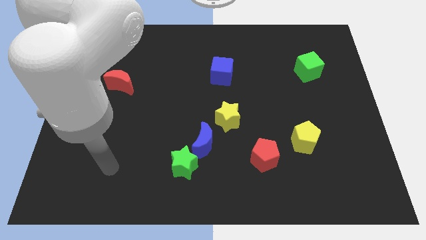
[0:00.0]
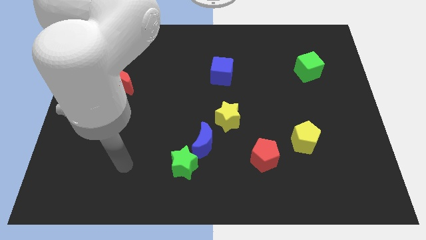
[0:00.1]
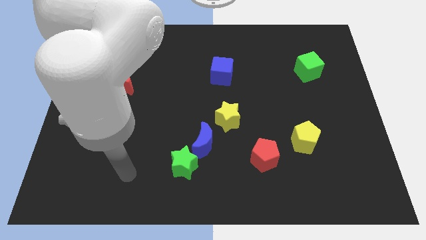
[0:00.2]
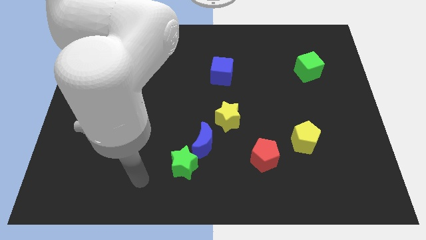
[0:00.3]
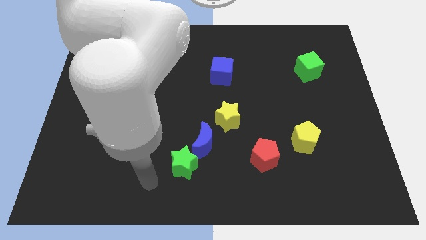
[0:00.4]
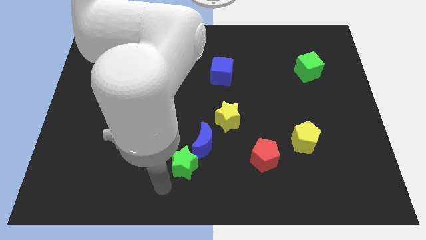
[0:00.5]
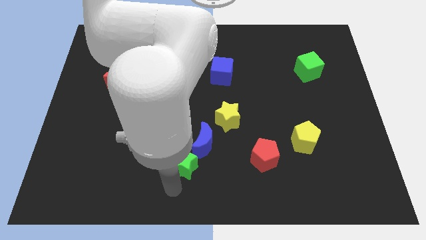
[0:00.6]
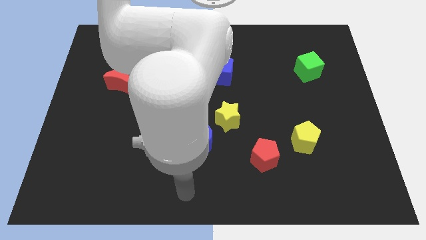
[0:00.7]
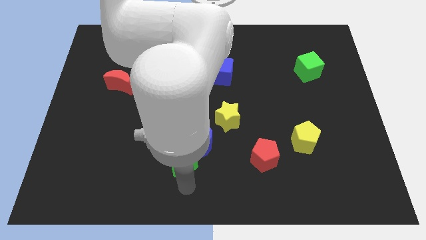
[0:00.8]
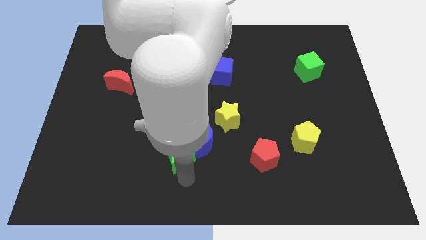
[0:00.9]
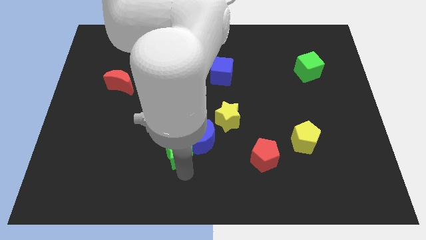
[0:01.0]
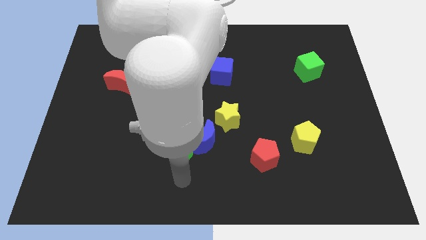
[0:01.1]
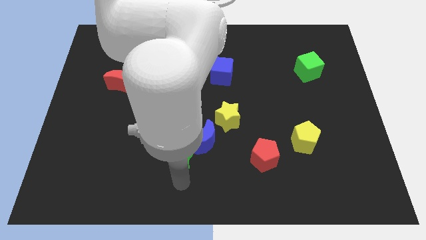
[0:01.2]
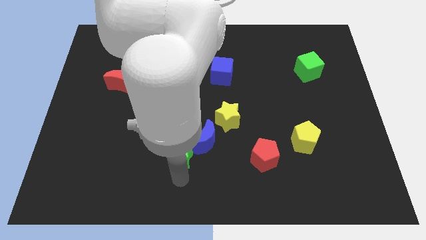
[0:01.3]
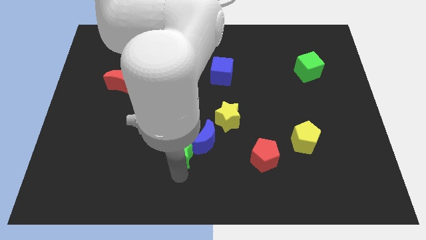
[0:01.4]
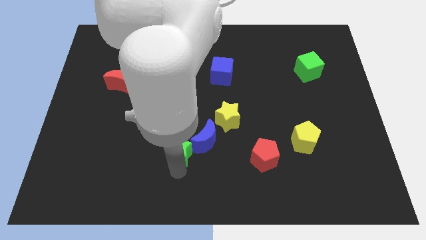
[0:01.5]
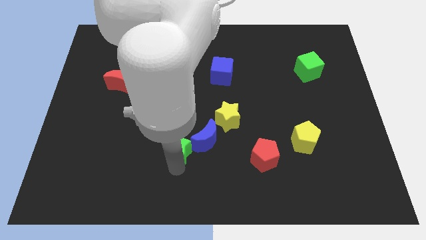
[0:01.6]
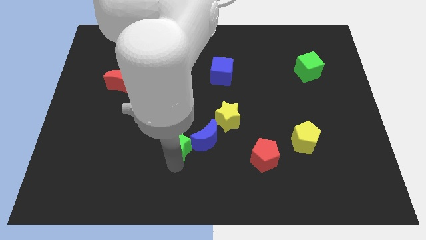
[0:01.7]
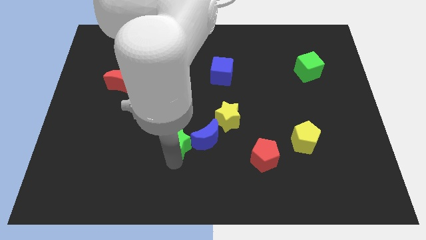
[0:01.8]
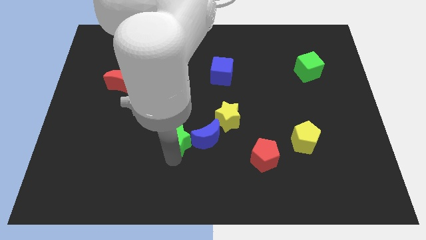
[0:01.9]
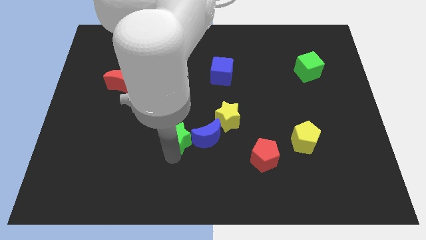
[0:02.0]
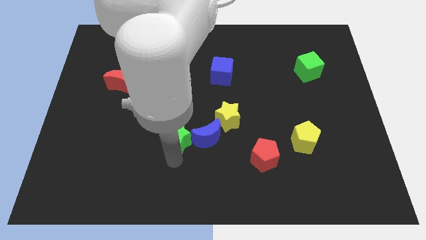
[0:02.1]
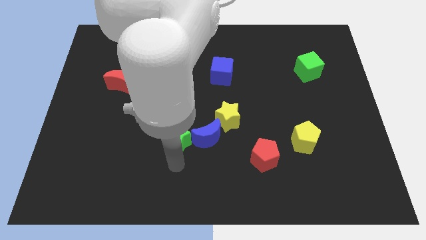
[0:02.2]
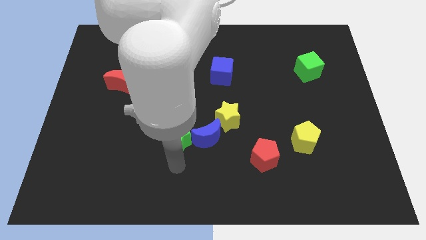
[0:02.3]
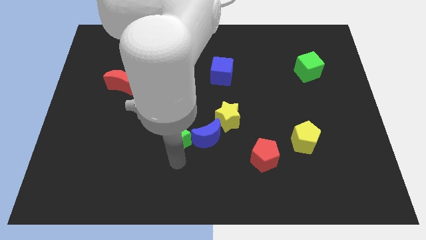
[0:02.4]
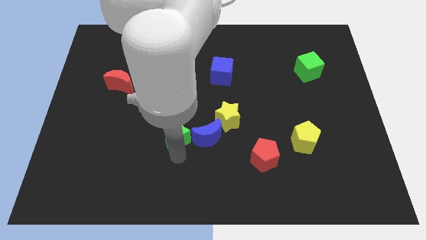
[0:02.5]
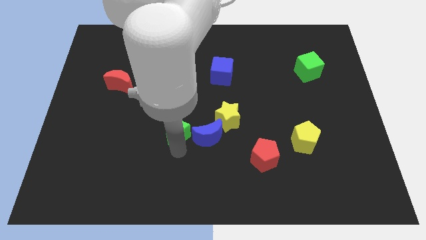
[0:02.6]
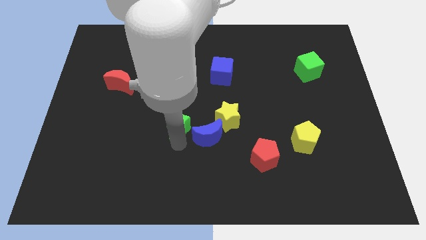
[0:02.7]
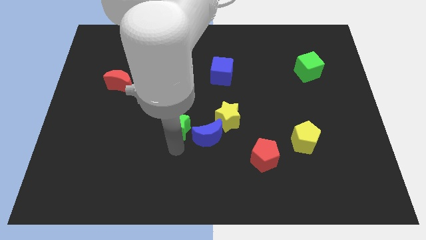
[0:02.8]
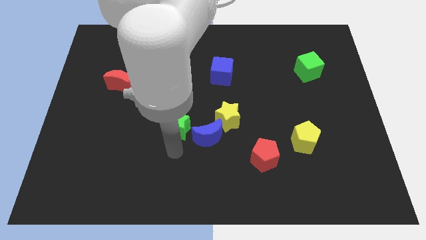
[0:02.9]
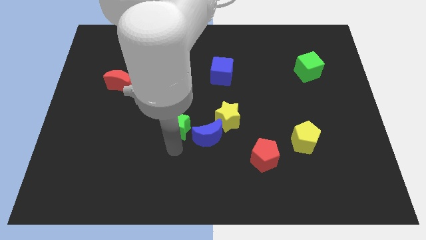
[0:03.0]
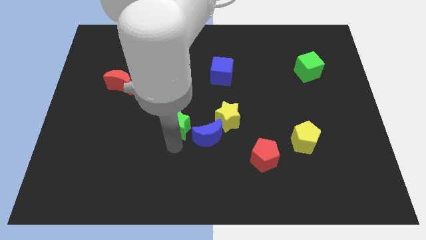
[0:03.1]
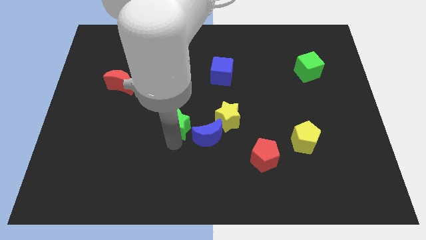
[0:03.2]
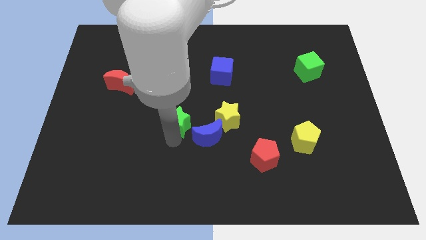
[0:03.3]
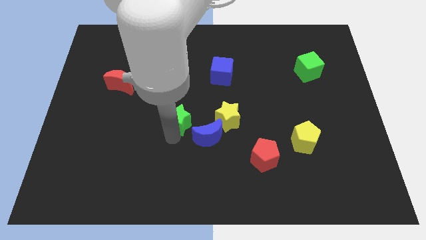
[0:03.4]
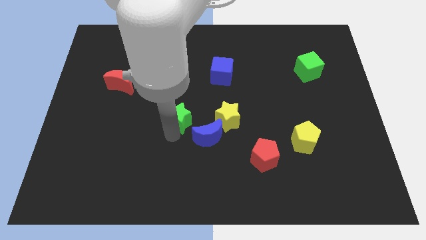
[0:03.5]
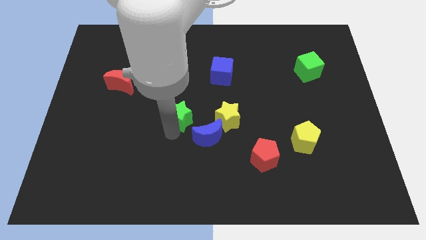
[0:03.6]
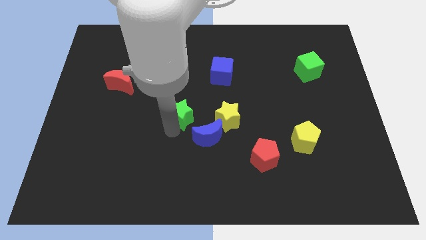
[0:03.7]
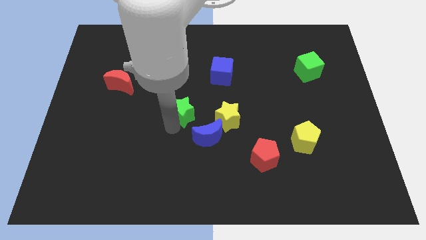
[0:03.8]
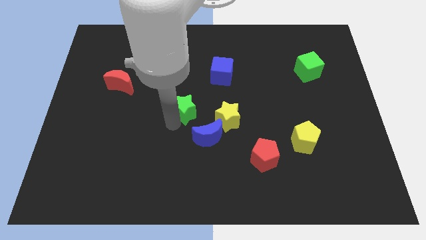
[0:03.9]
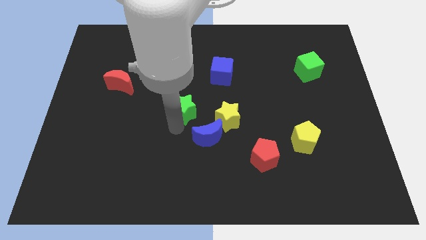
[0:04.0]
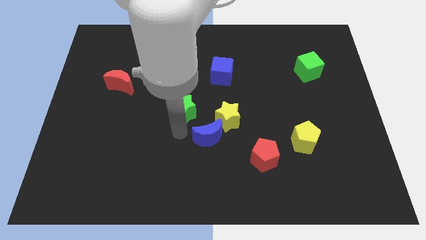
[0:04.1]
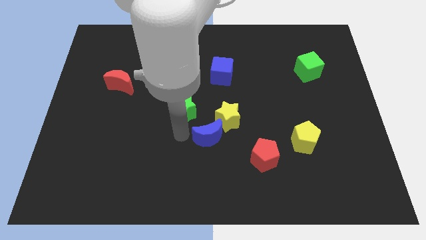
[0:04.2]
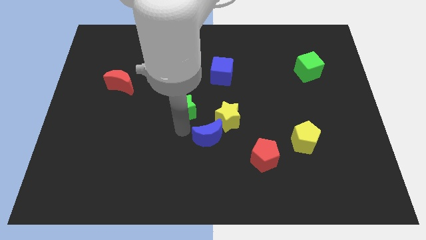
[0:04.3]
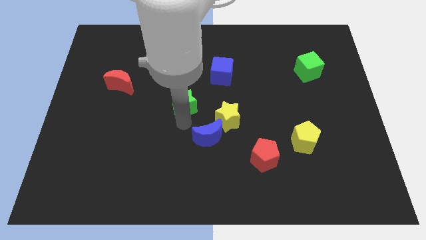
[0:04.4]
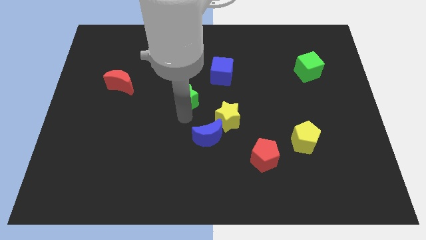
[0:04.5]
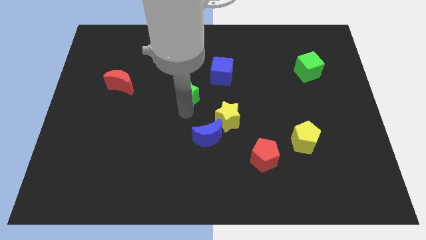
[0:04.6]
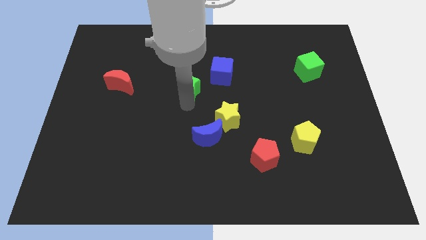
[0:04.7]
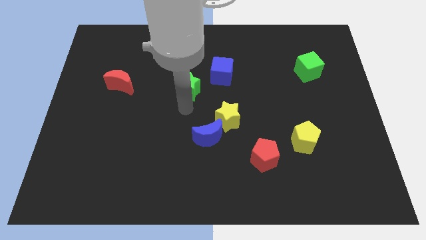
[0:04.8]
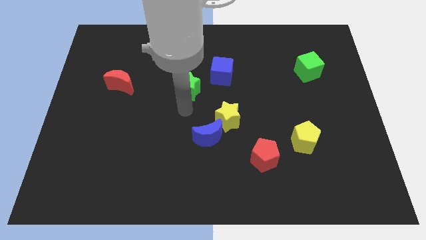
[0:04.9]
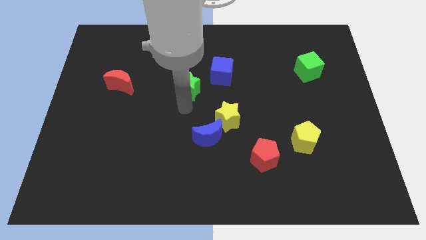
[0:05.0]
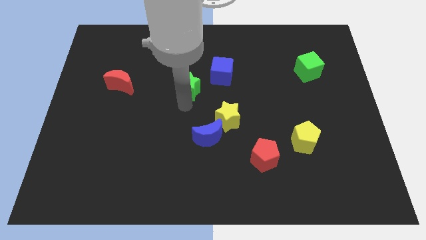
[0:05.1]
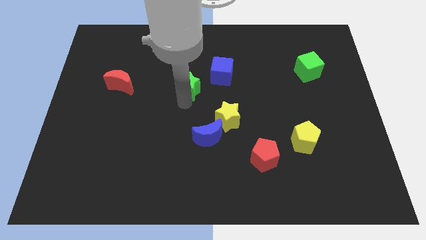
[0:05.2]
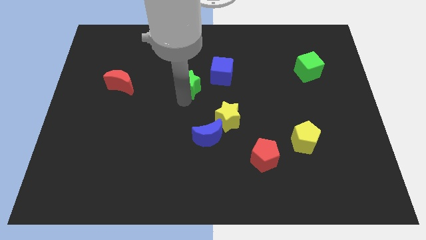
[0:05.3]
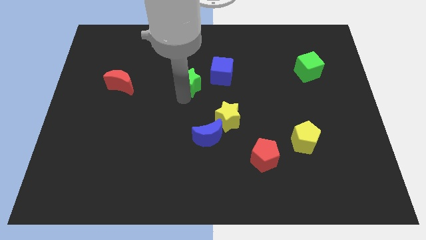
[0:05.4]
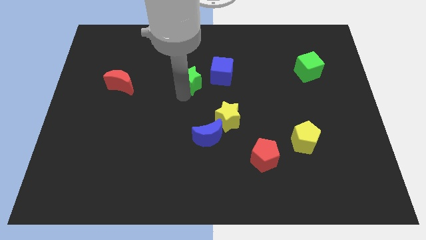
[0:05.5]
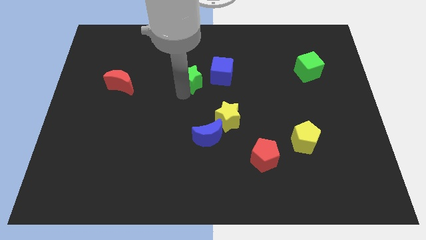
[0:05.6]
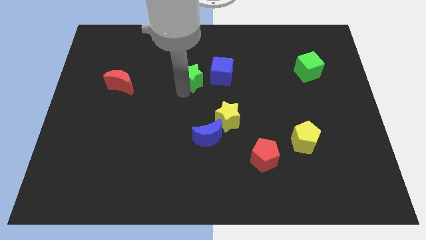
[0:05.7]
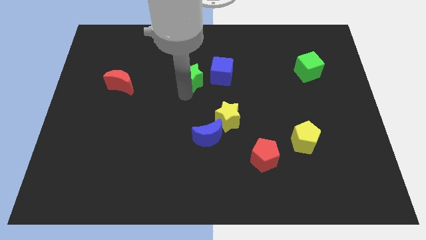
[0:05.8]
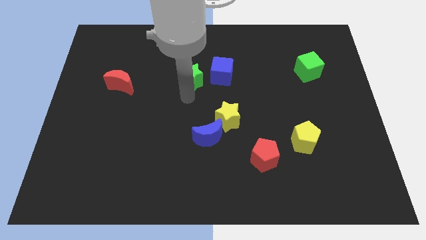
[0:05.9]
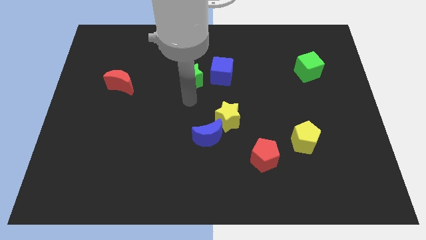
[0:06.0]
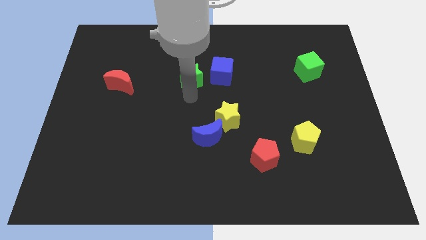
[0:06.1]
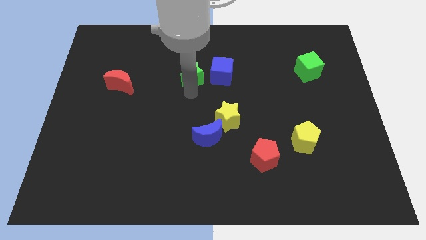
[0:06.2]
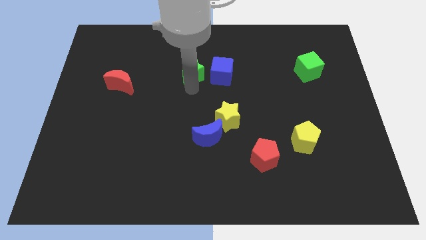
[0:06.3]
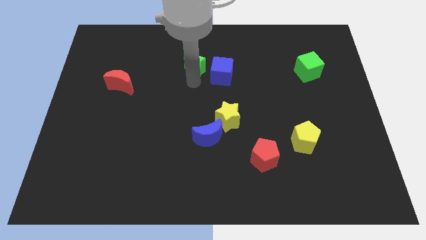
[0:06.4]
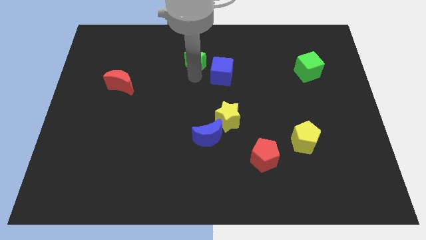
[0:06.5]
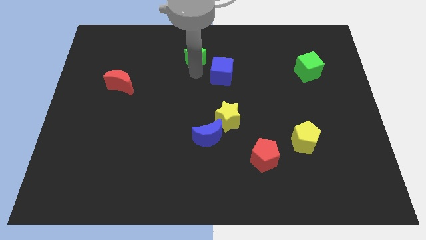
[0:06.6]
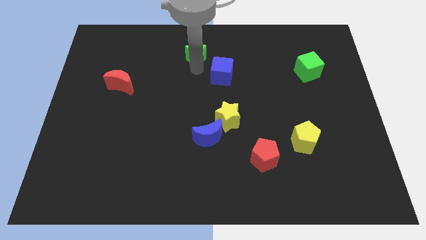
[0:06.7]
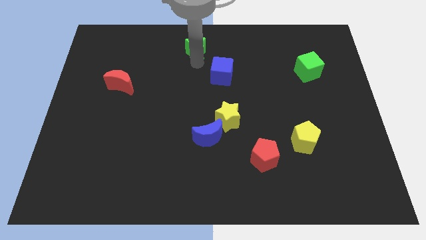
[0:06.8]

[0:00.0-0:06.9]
push the green star to the towards your base

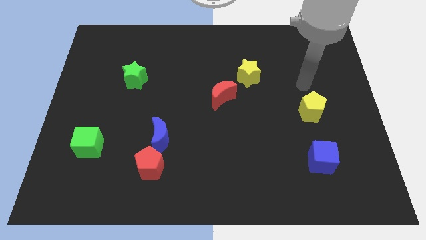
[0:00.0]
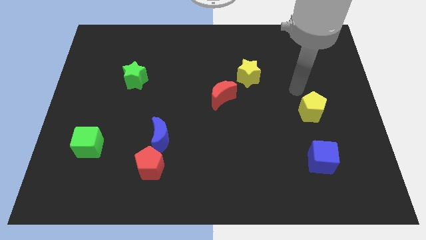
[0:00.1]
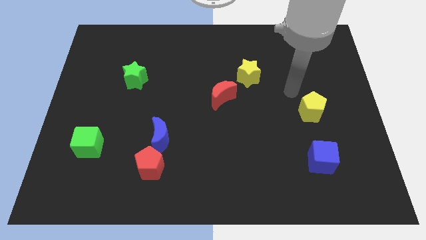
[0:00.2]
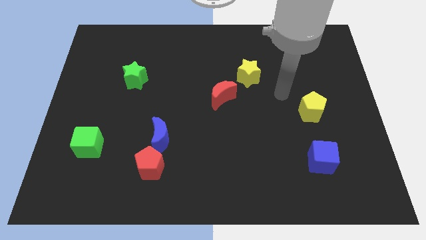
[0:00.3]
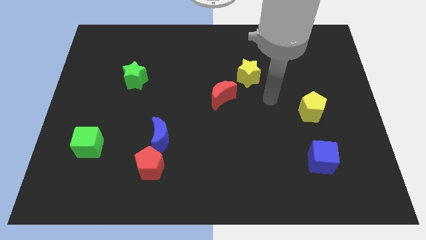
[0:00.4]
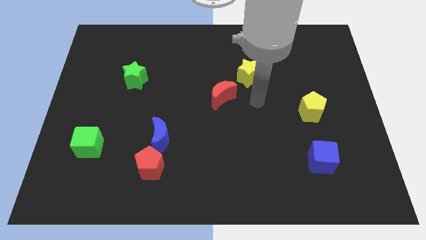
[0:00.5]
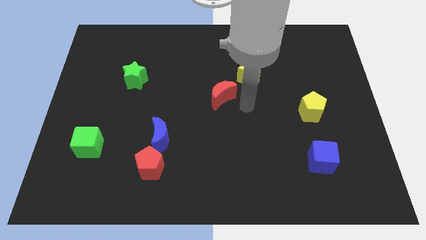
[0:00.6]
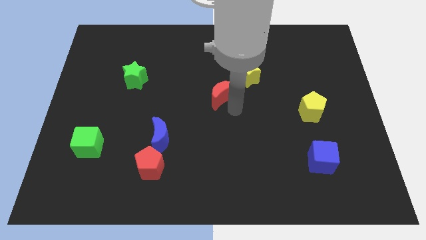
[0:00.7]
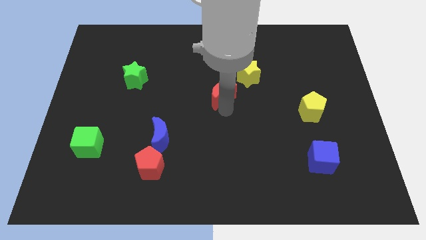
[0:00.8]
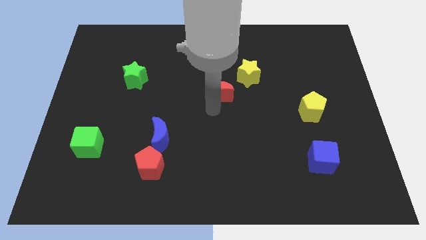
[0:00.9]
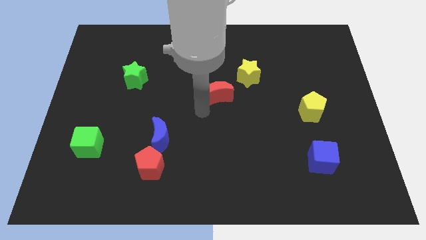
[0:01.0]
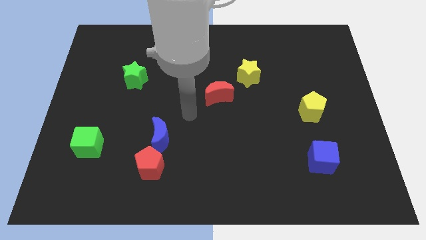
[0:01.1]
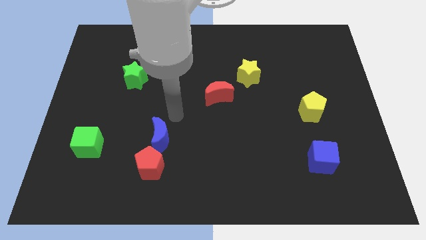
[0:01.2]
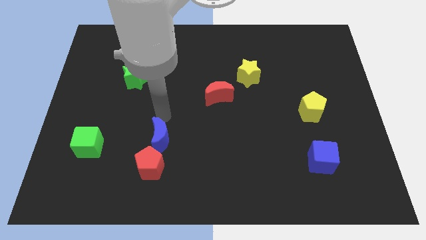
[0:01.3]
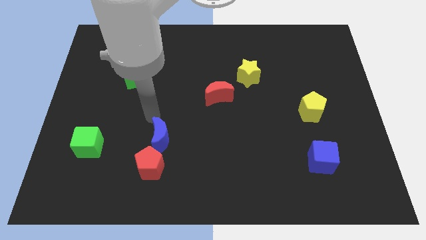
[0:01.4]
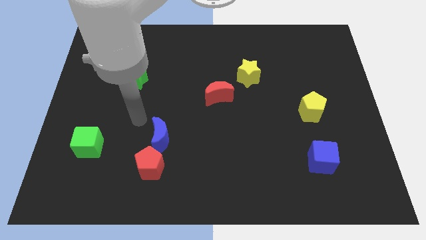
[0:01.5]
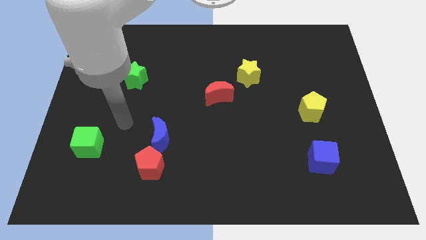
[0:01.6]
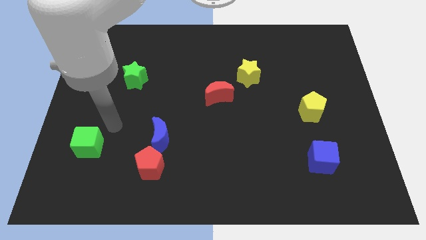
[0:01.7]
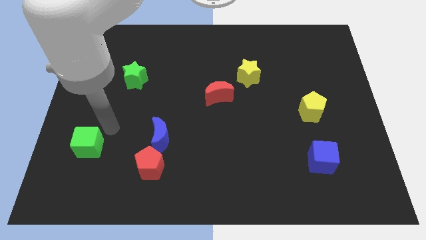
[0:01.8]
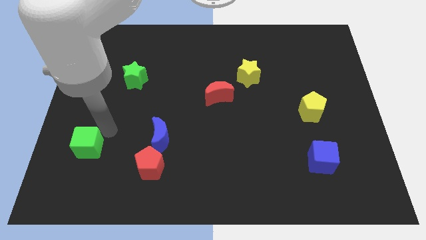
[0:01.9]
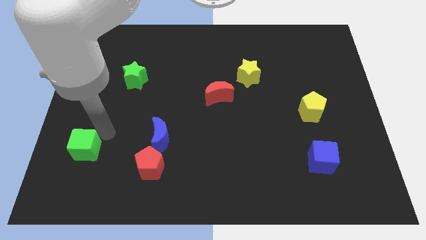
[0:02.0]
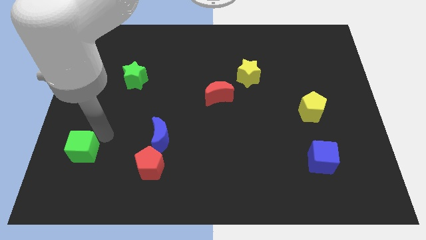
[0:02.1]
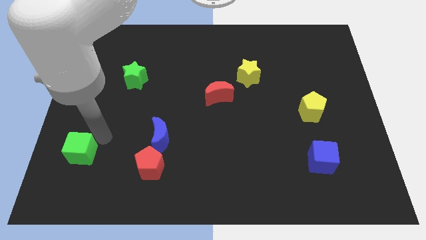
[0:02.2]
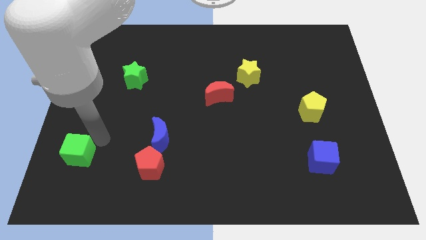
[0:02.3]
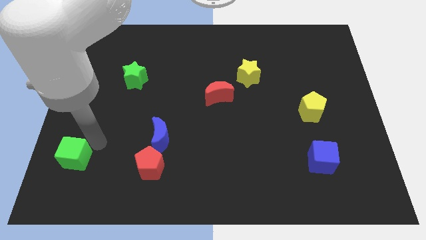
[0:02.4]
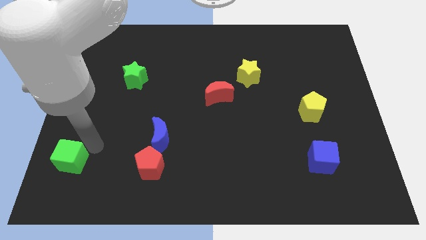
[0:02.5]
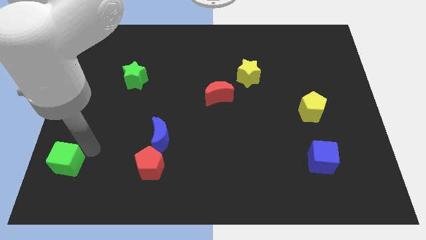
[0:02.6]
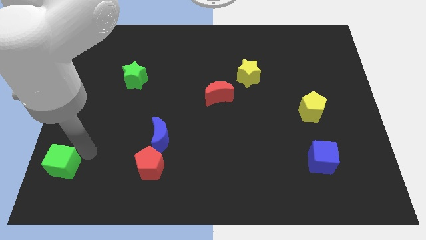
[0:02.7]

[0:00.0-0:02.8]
slide the green cube to the bottom left of the board
